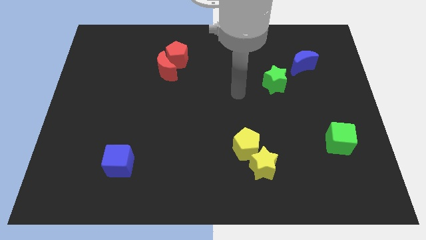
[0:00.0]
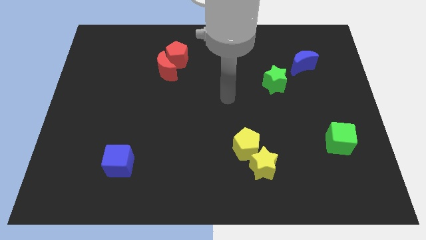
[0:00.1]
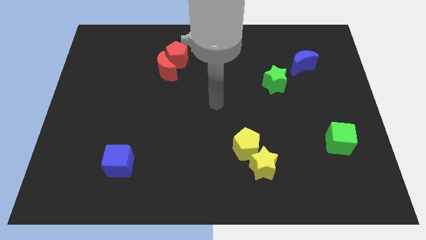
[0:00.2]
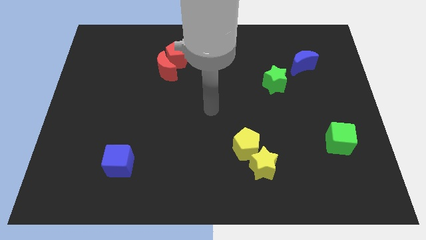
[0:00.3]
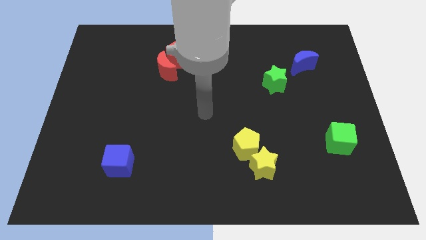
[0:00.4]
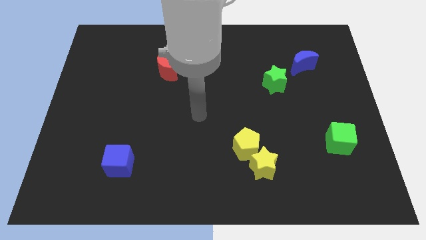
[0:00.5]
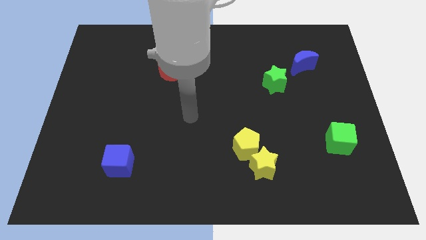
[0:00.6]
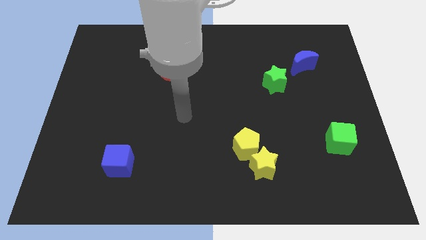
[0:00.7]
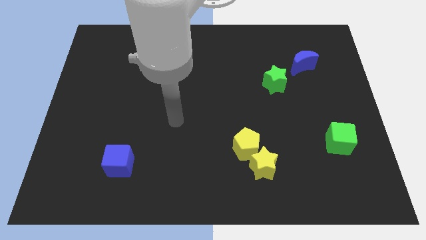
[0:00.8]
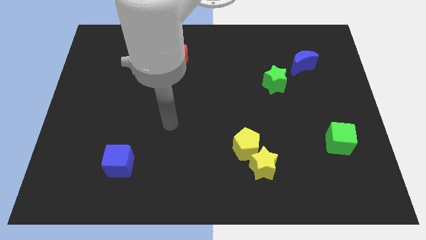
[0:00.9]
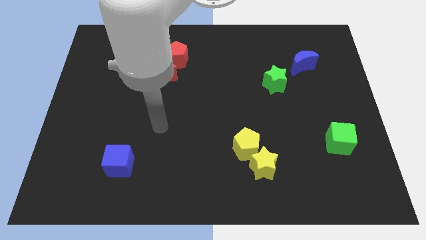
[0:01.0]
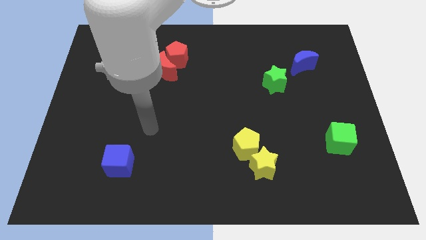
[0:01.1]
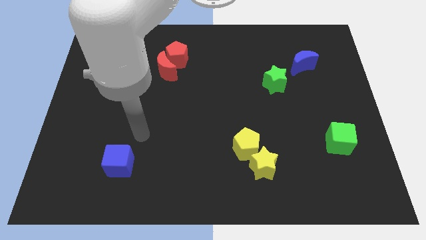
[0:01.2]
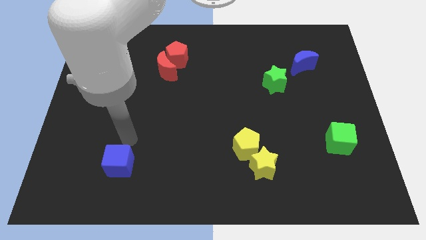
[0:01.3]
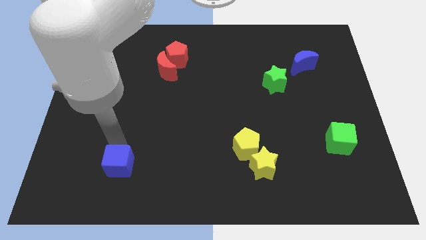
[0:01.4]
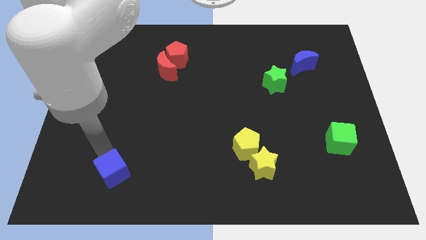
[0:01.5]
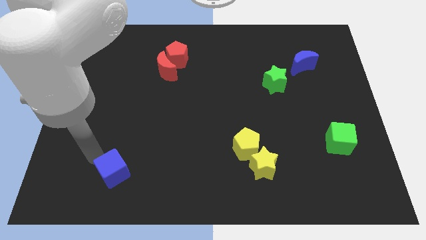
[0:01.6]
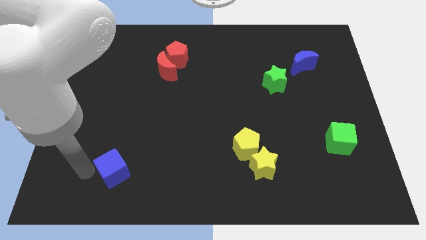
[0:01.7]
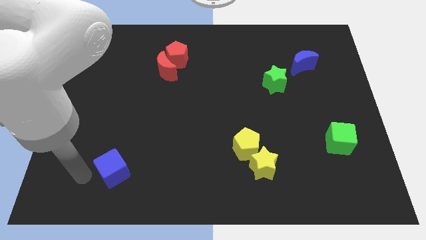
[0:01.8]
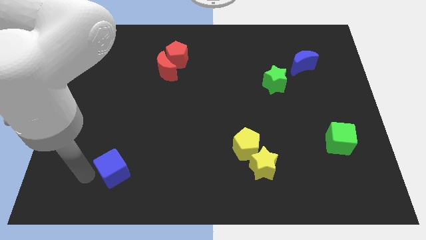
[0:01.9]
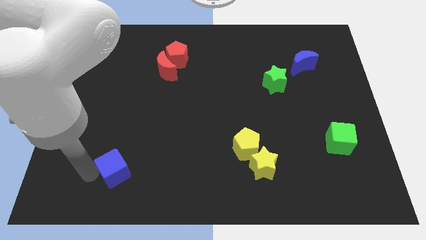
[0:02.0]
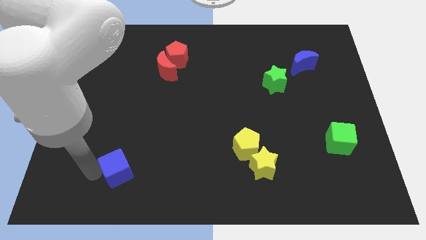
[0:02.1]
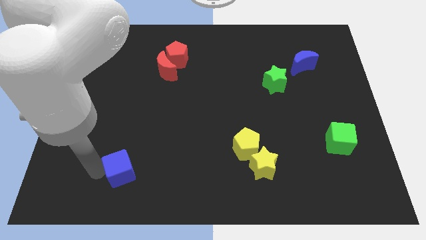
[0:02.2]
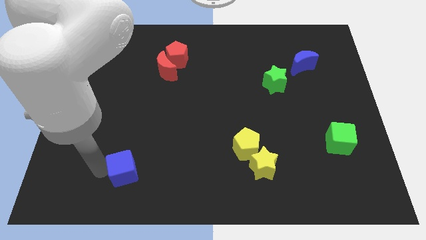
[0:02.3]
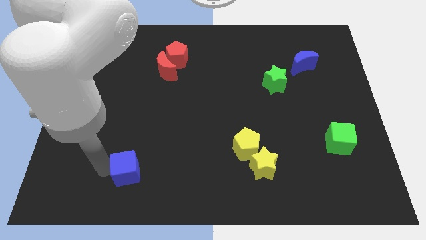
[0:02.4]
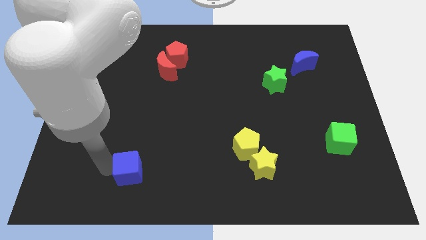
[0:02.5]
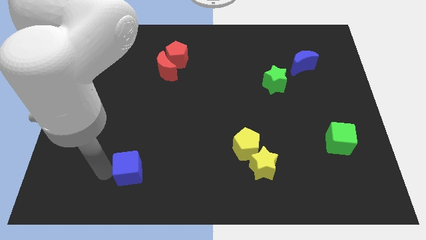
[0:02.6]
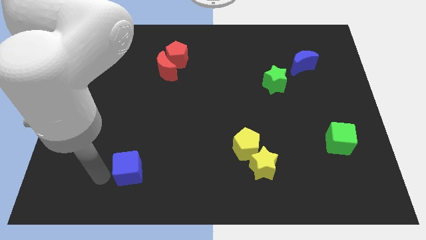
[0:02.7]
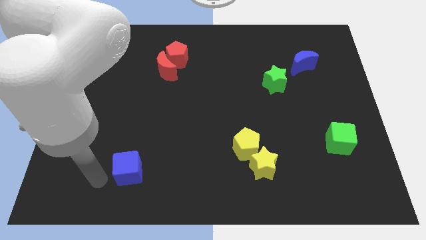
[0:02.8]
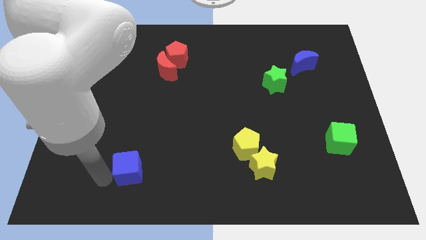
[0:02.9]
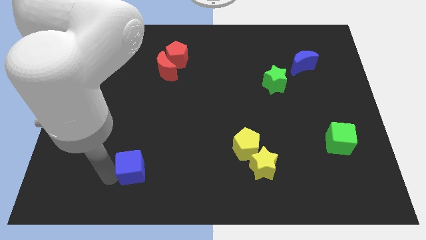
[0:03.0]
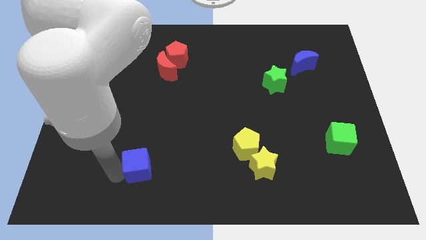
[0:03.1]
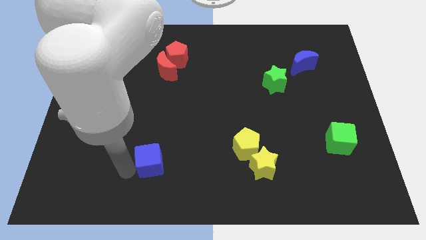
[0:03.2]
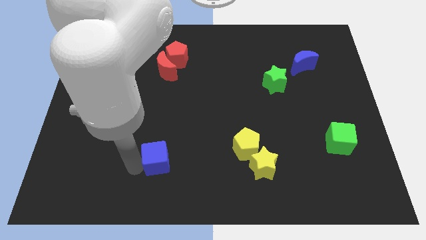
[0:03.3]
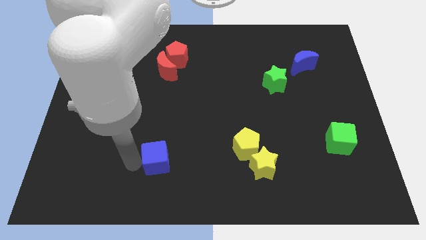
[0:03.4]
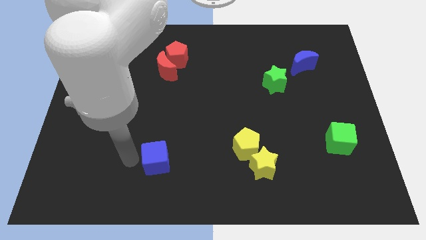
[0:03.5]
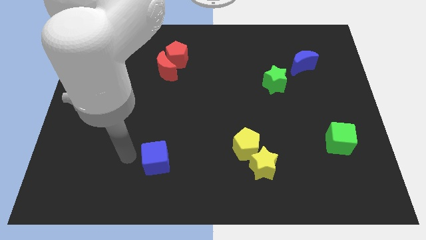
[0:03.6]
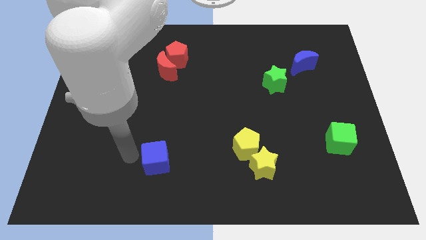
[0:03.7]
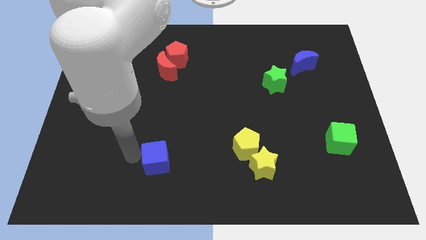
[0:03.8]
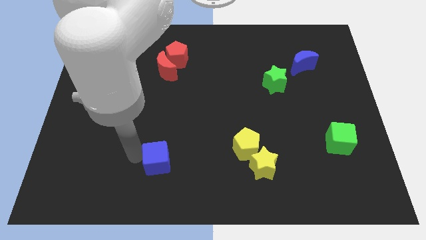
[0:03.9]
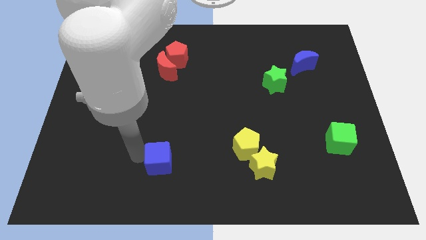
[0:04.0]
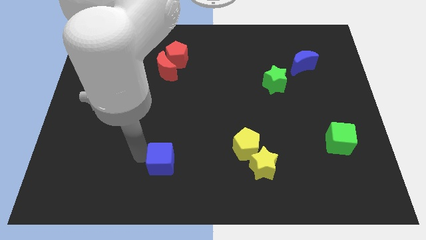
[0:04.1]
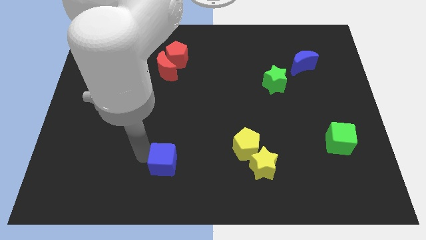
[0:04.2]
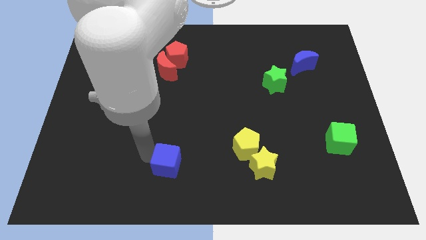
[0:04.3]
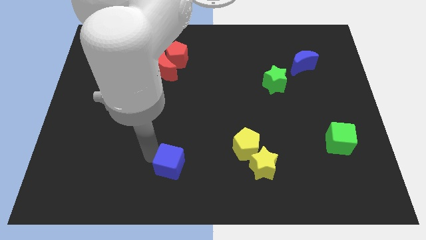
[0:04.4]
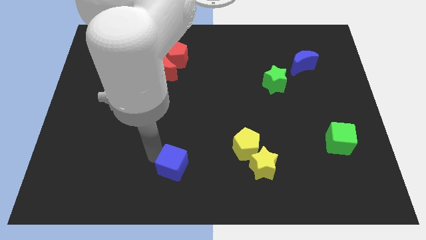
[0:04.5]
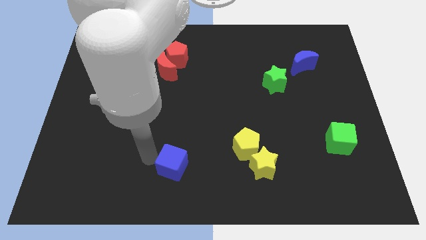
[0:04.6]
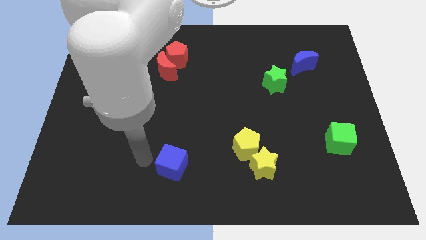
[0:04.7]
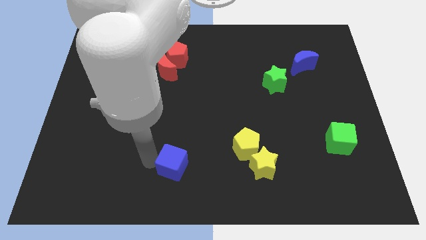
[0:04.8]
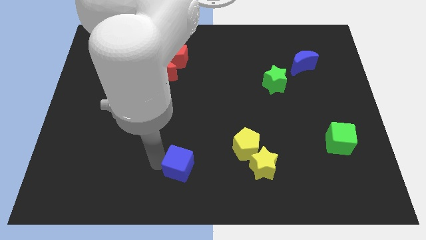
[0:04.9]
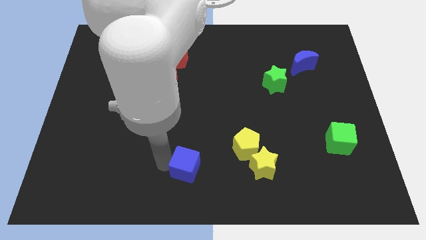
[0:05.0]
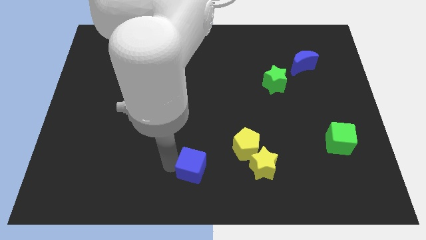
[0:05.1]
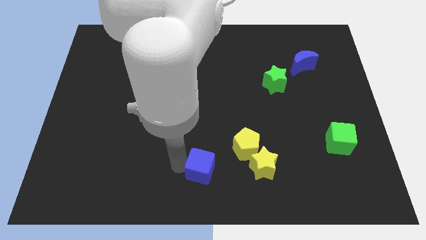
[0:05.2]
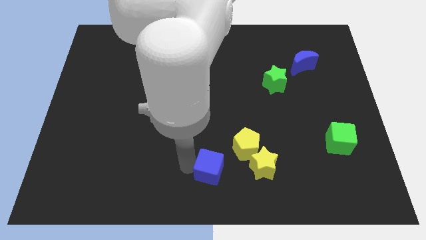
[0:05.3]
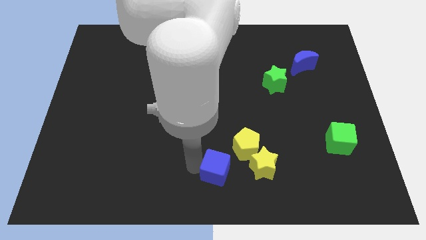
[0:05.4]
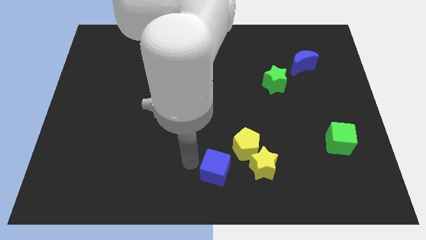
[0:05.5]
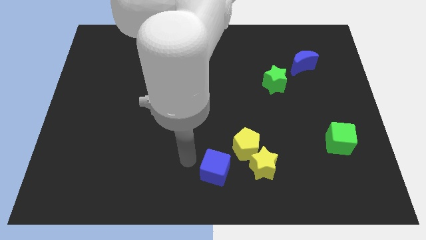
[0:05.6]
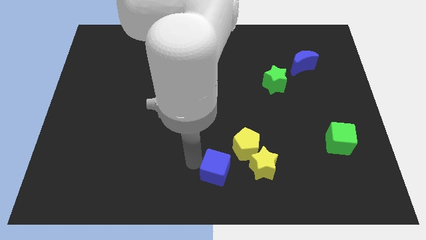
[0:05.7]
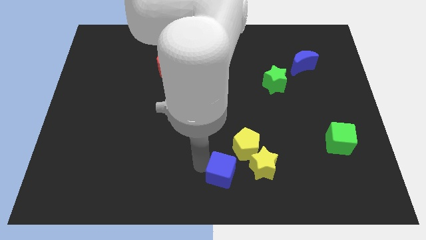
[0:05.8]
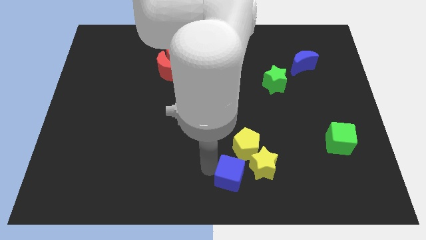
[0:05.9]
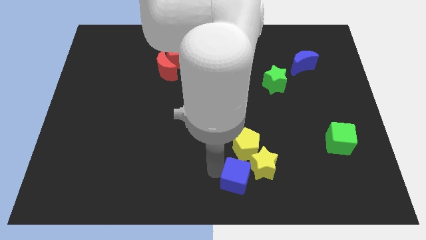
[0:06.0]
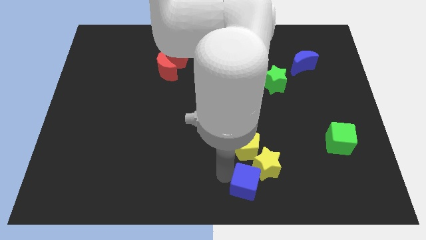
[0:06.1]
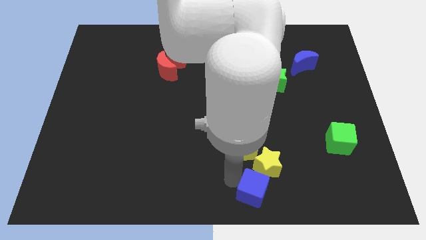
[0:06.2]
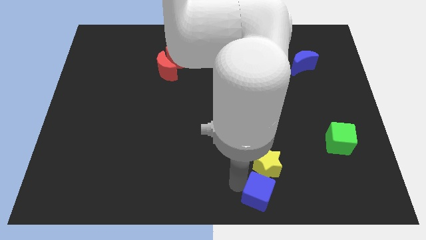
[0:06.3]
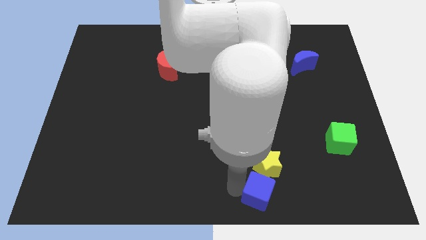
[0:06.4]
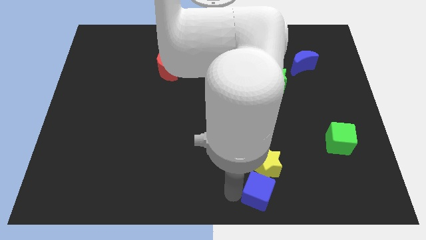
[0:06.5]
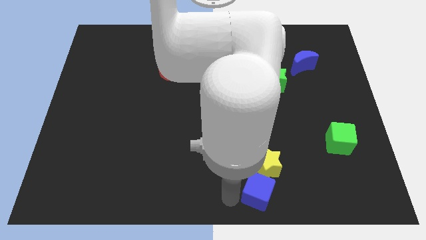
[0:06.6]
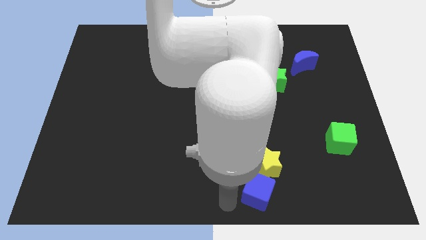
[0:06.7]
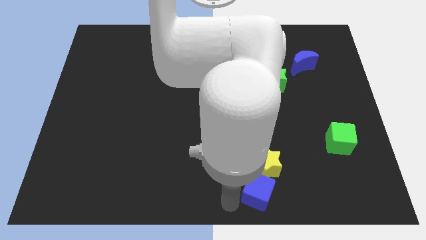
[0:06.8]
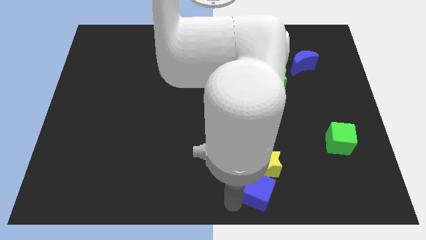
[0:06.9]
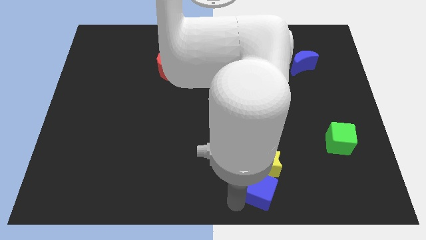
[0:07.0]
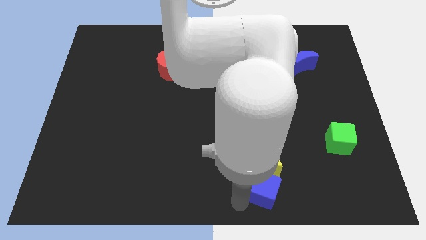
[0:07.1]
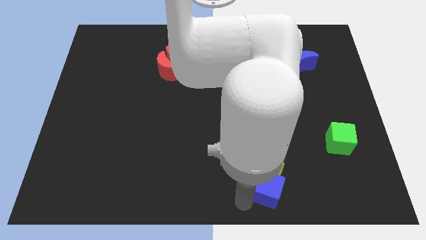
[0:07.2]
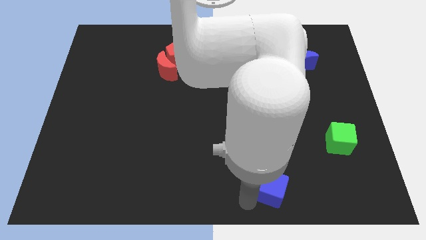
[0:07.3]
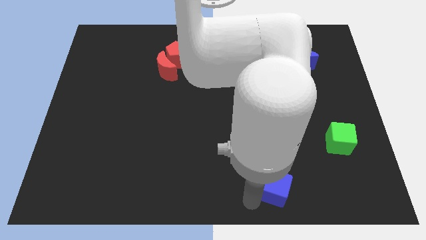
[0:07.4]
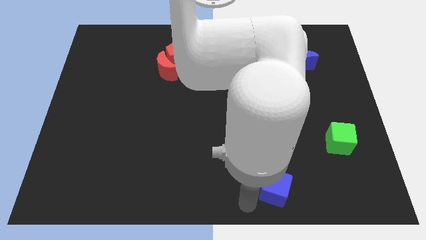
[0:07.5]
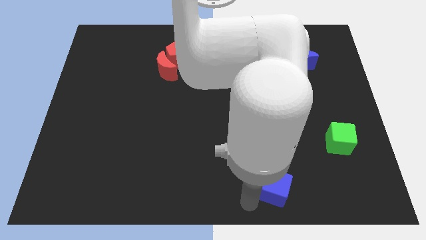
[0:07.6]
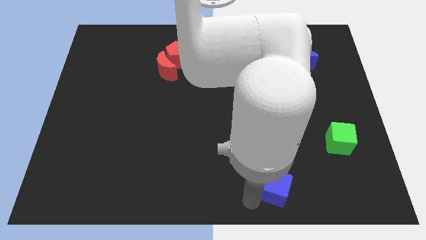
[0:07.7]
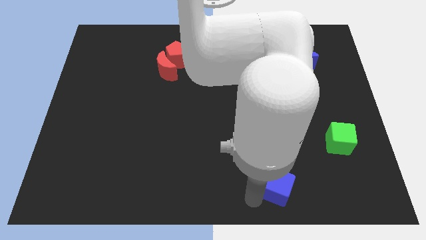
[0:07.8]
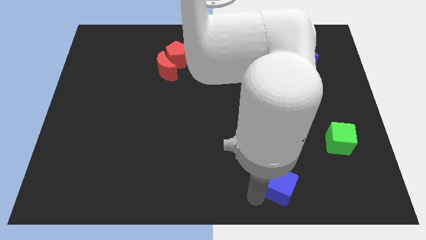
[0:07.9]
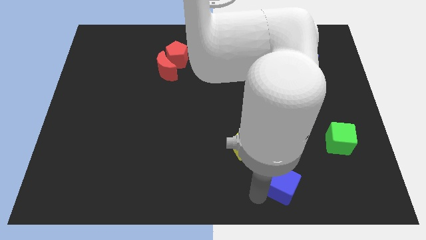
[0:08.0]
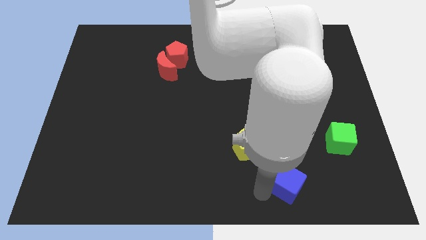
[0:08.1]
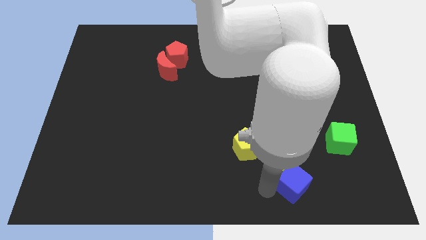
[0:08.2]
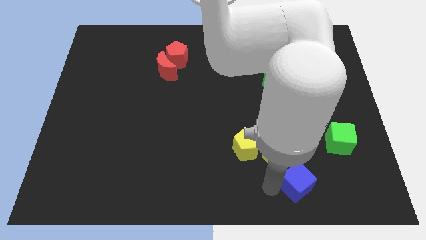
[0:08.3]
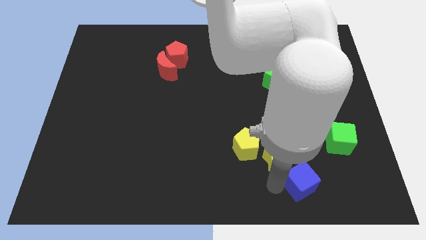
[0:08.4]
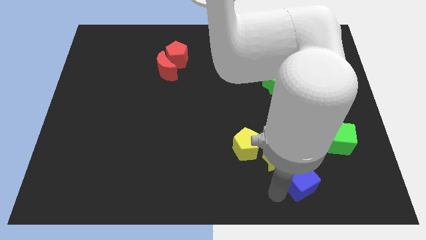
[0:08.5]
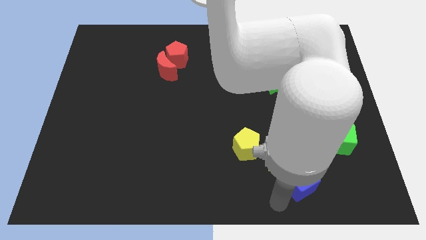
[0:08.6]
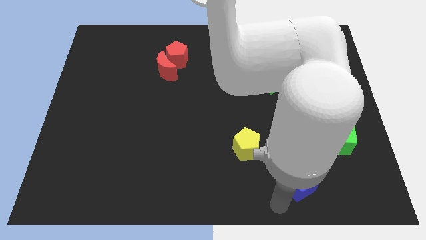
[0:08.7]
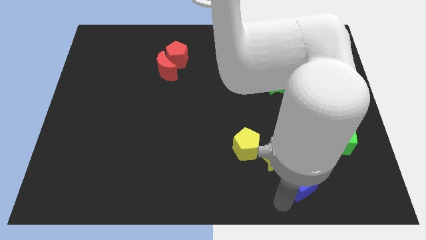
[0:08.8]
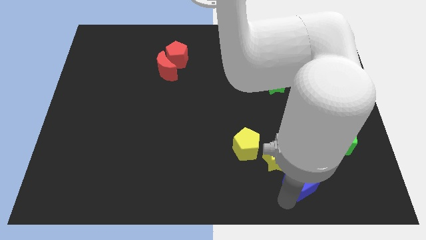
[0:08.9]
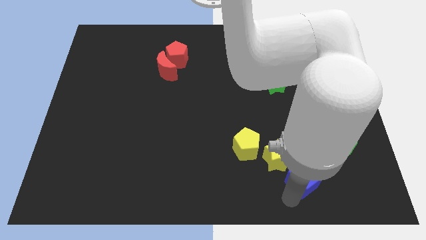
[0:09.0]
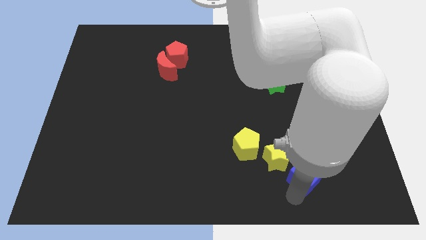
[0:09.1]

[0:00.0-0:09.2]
push the blue cube just right of the yellow star
